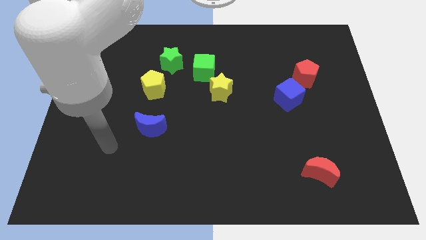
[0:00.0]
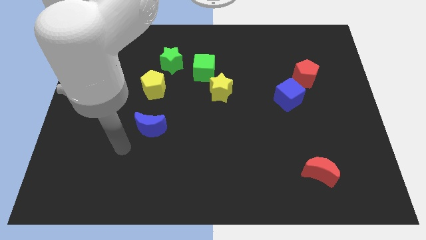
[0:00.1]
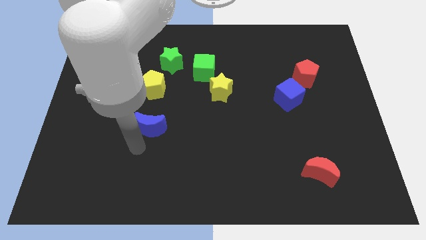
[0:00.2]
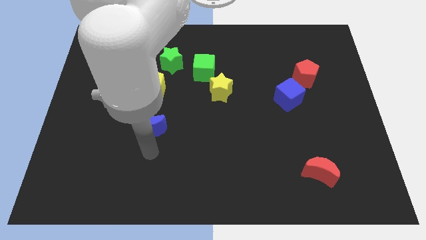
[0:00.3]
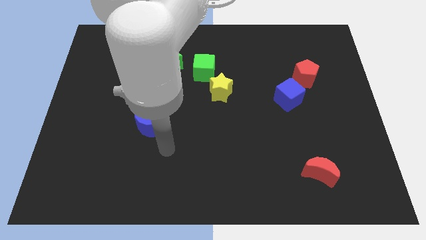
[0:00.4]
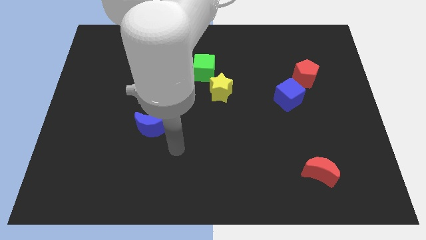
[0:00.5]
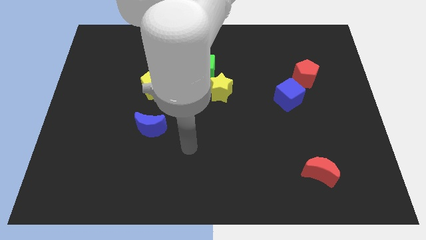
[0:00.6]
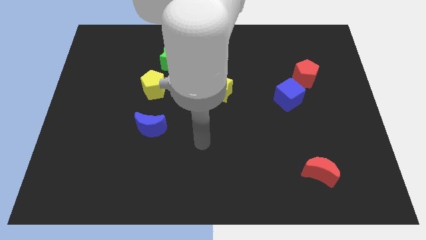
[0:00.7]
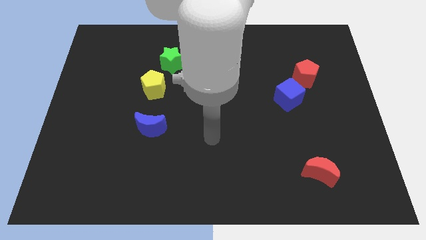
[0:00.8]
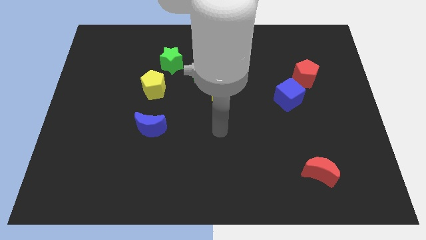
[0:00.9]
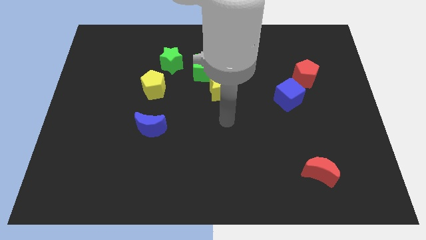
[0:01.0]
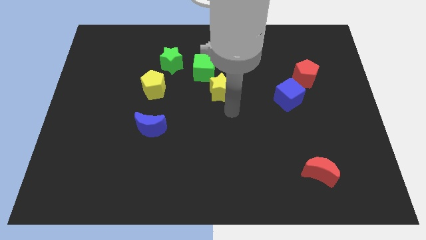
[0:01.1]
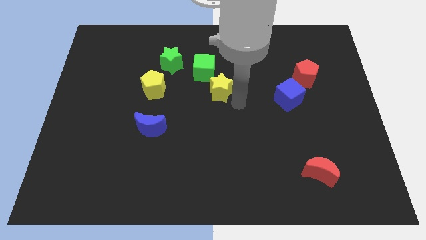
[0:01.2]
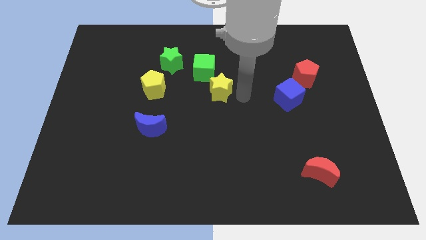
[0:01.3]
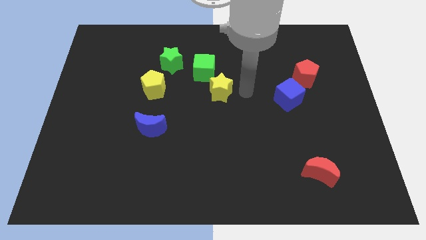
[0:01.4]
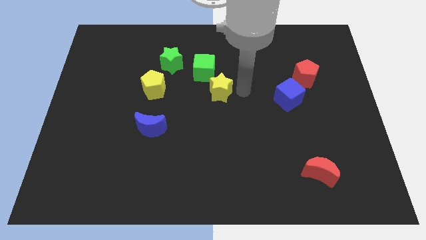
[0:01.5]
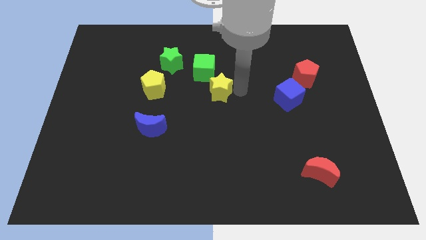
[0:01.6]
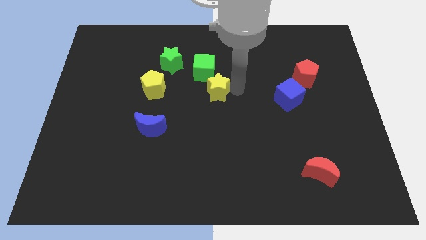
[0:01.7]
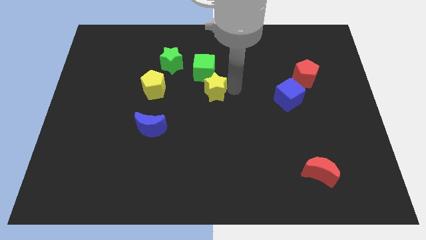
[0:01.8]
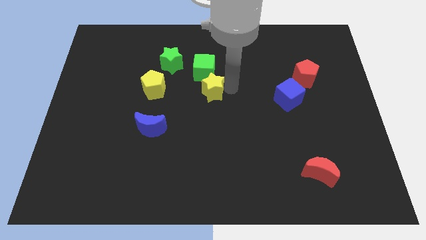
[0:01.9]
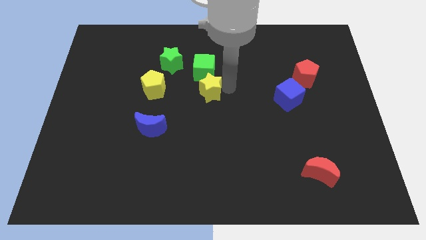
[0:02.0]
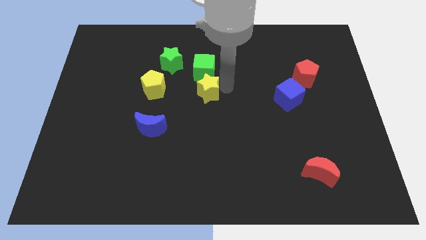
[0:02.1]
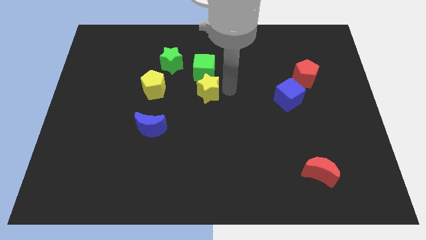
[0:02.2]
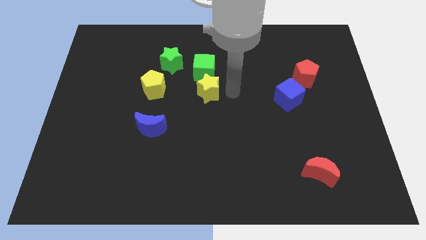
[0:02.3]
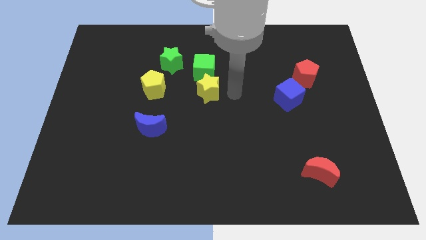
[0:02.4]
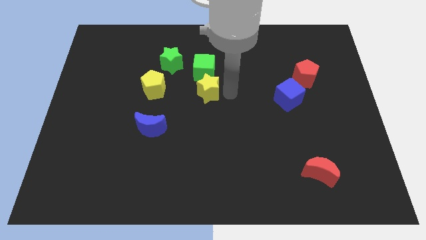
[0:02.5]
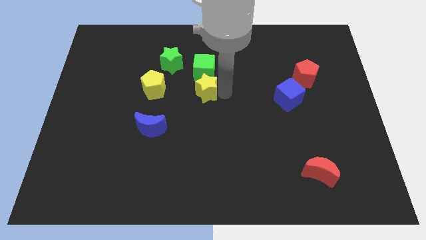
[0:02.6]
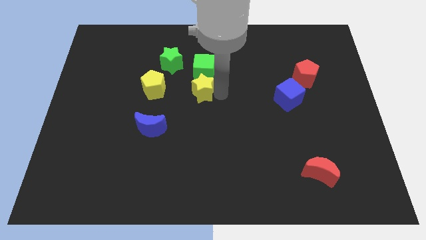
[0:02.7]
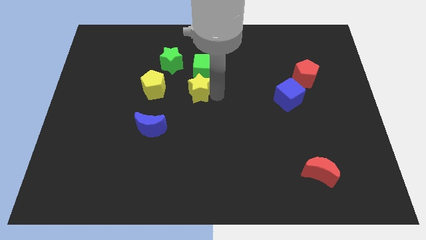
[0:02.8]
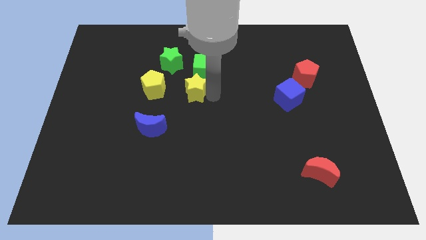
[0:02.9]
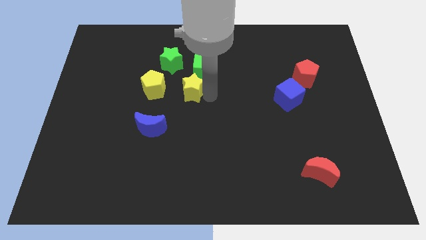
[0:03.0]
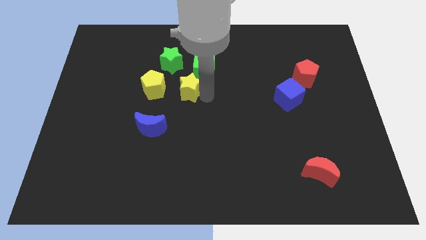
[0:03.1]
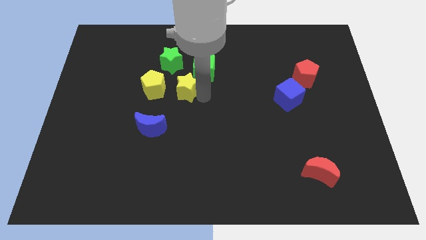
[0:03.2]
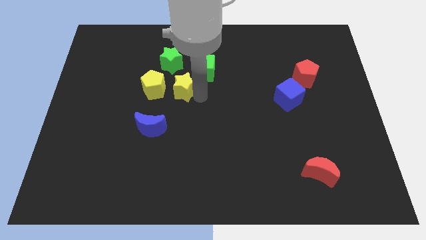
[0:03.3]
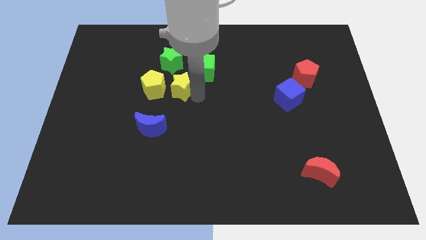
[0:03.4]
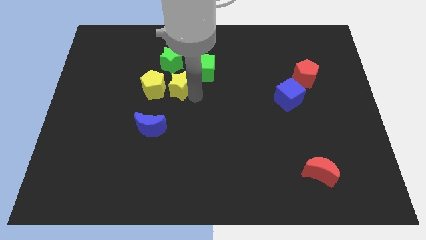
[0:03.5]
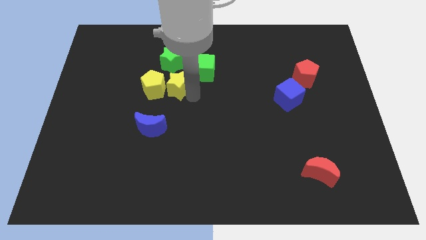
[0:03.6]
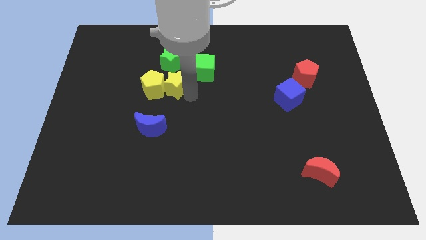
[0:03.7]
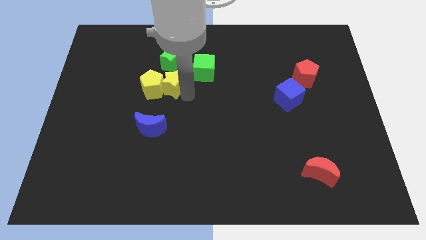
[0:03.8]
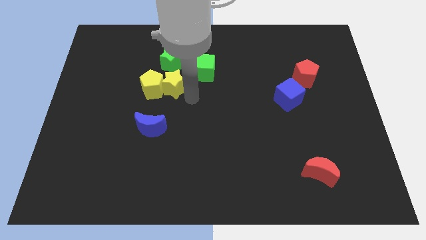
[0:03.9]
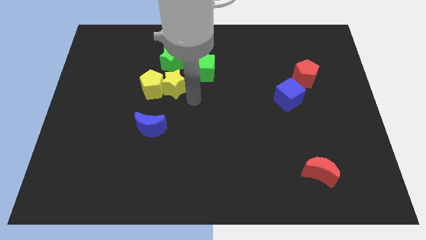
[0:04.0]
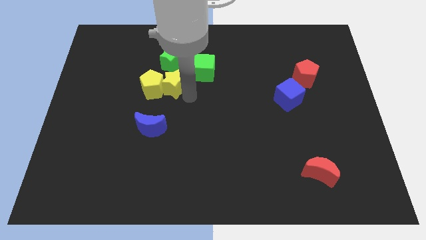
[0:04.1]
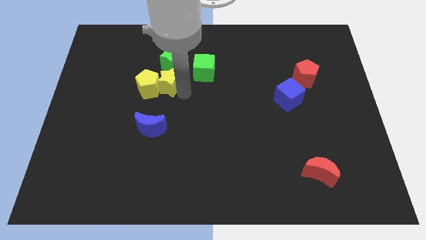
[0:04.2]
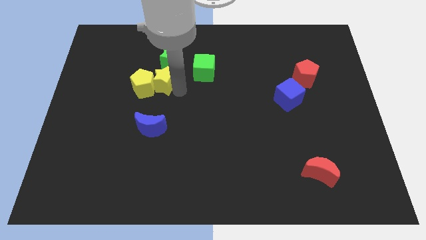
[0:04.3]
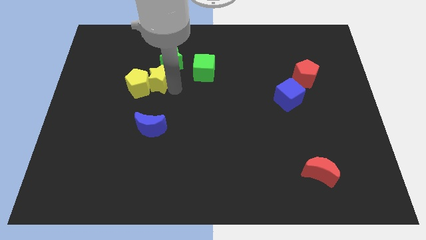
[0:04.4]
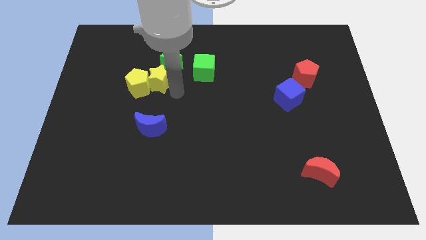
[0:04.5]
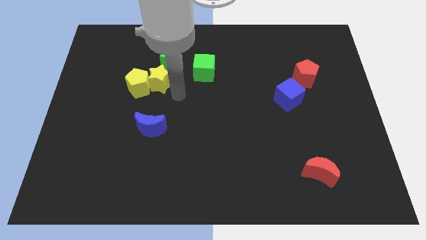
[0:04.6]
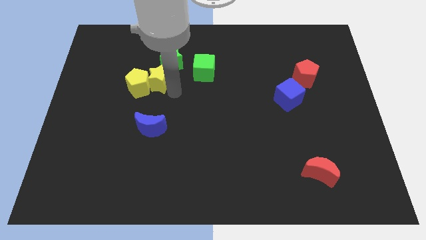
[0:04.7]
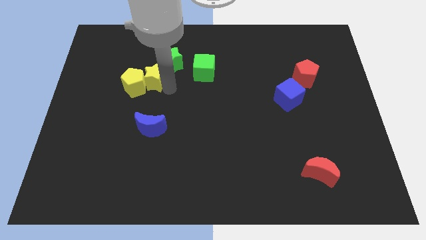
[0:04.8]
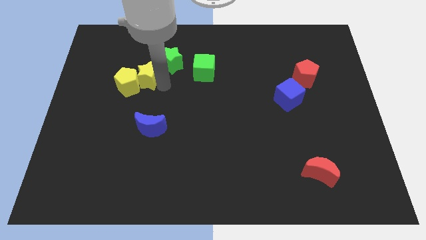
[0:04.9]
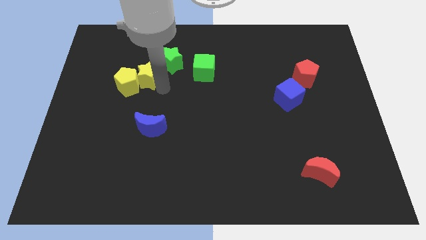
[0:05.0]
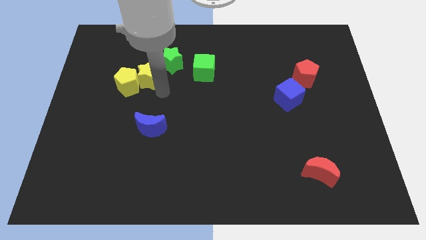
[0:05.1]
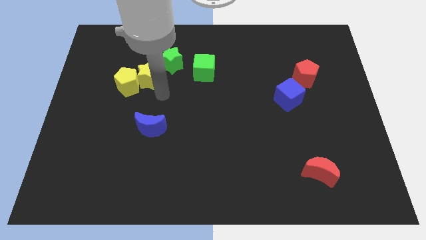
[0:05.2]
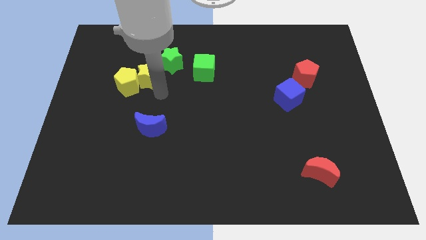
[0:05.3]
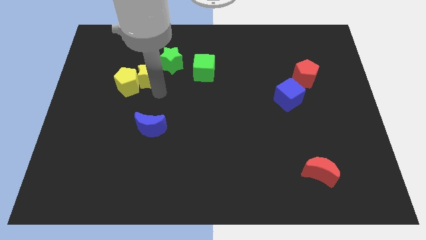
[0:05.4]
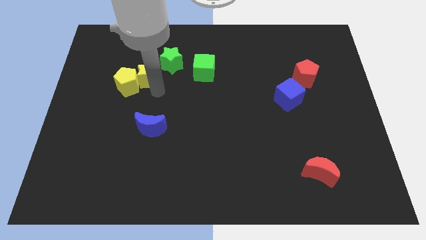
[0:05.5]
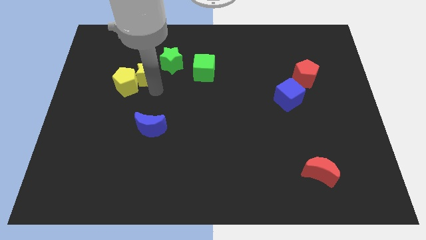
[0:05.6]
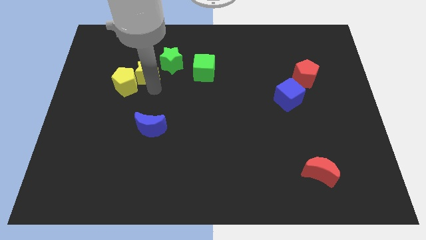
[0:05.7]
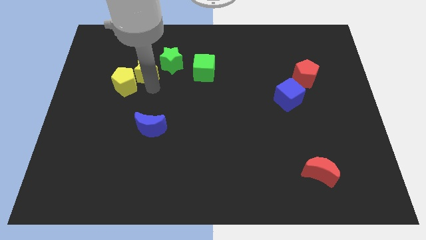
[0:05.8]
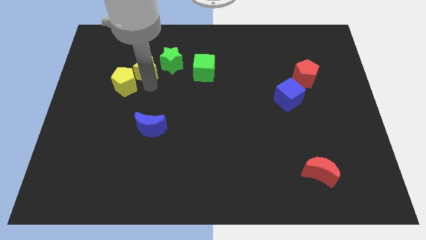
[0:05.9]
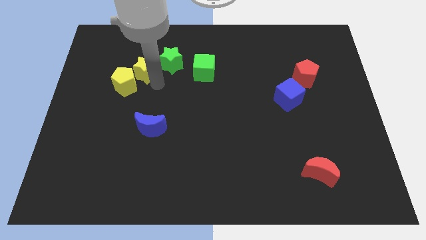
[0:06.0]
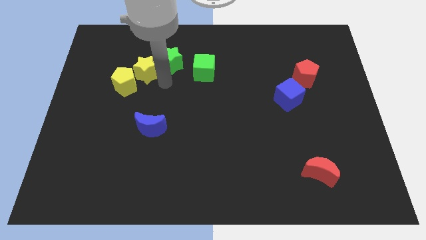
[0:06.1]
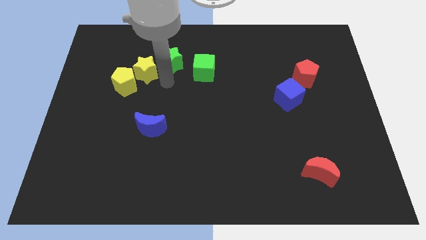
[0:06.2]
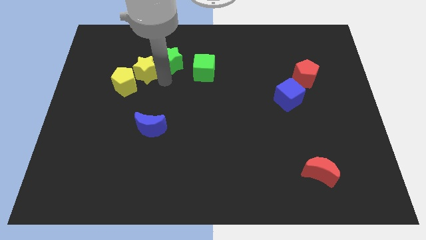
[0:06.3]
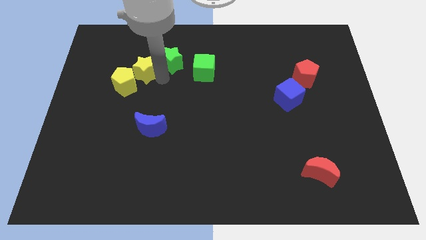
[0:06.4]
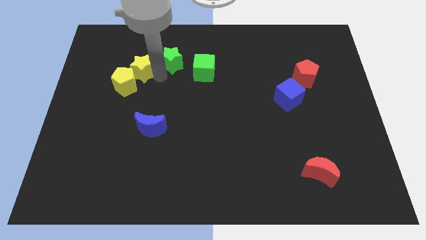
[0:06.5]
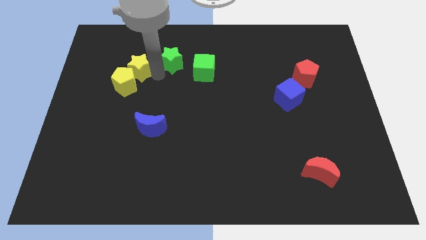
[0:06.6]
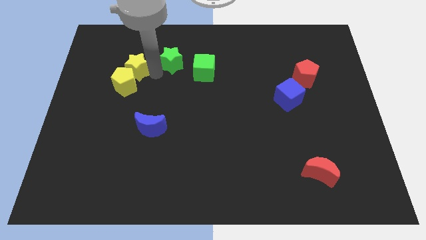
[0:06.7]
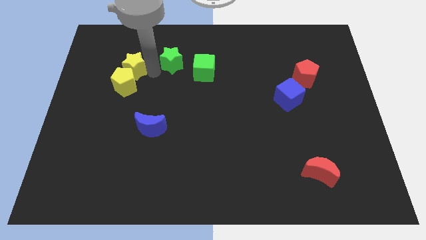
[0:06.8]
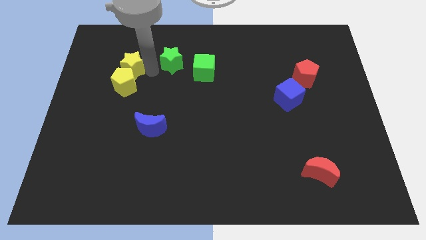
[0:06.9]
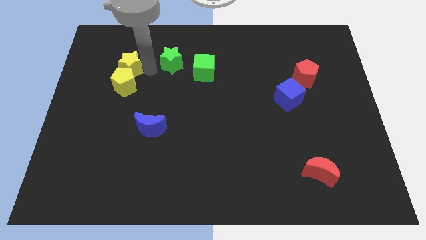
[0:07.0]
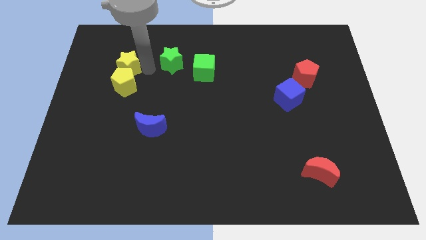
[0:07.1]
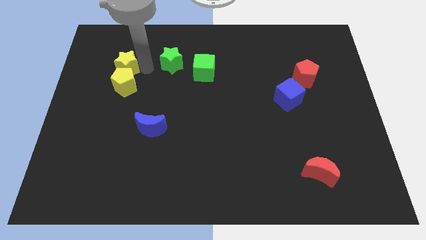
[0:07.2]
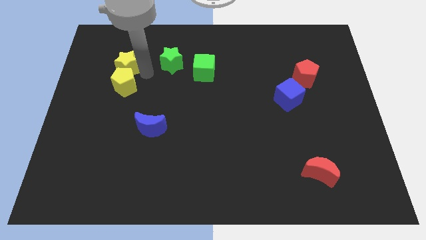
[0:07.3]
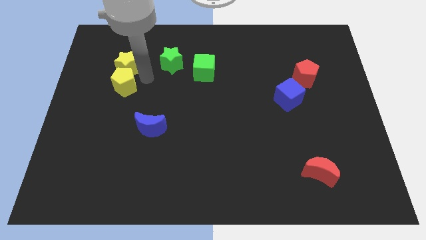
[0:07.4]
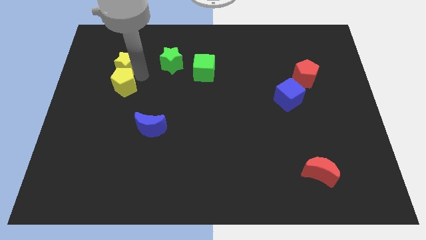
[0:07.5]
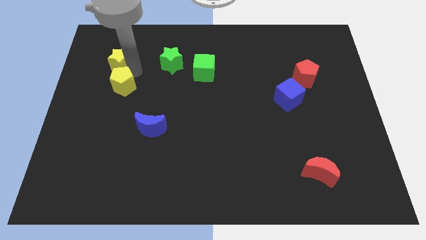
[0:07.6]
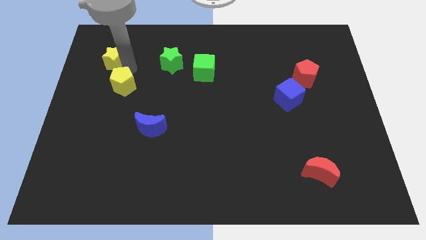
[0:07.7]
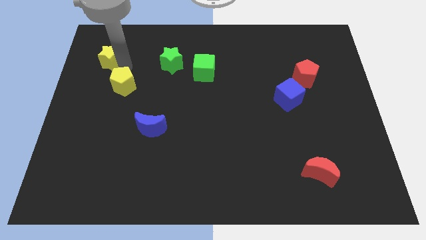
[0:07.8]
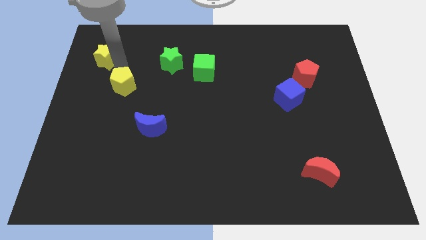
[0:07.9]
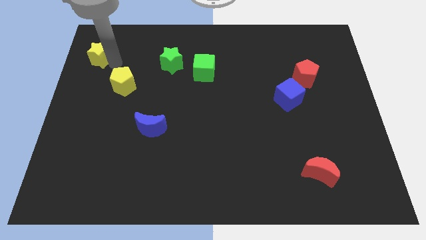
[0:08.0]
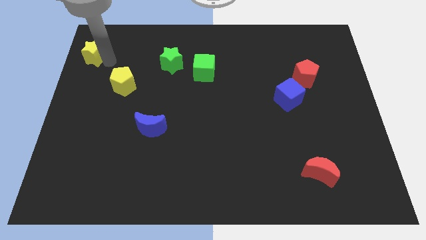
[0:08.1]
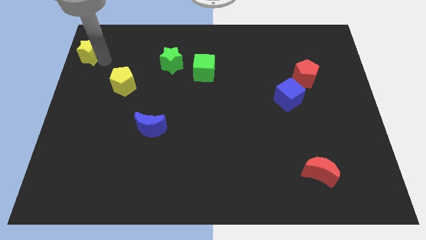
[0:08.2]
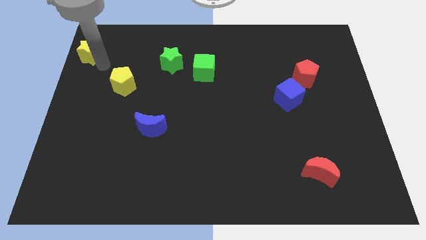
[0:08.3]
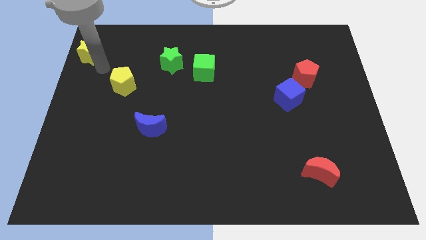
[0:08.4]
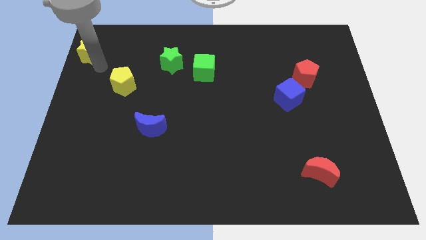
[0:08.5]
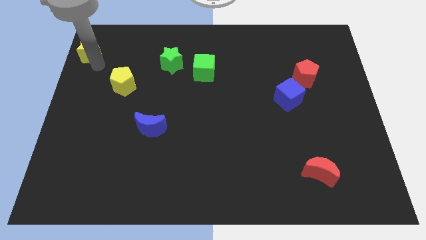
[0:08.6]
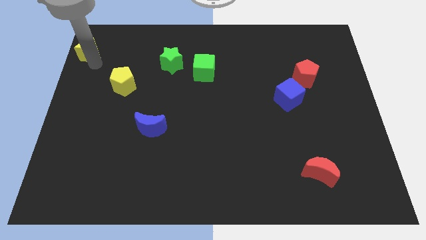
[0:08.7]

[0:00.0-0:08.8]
push the yellow star to the upper left corner
